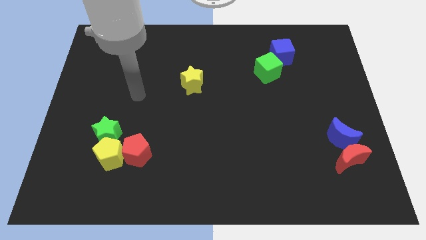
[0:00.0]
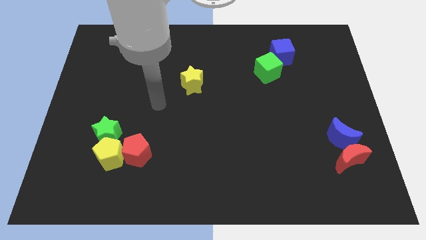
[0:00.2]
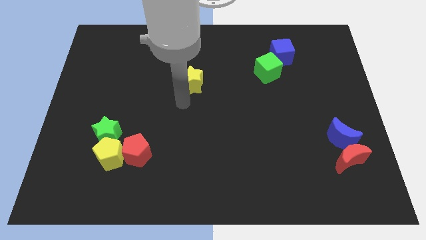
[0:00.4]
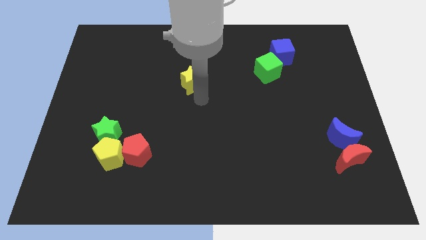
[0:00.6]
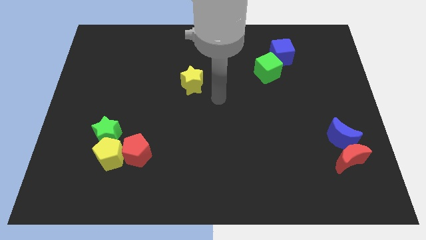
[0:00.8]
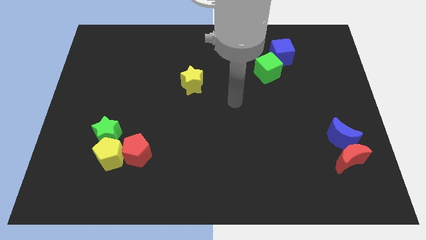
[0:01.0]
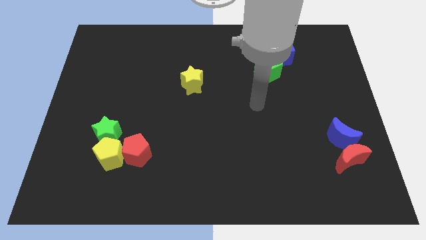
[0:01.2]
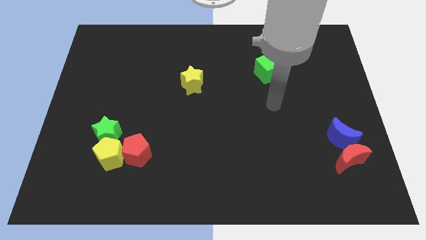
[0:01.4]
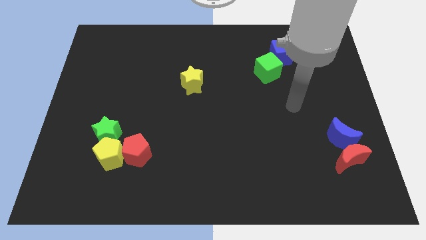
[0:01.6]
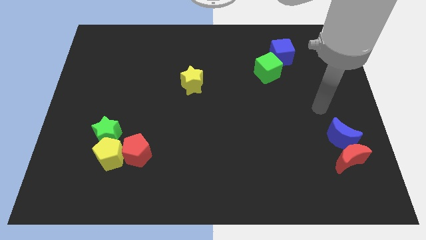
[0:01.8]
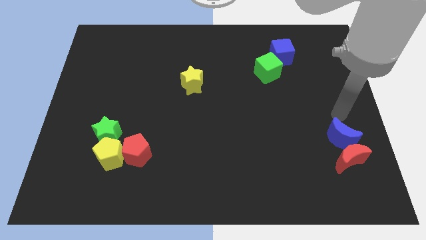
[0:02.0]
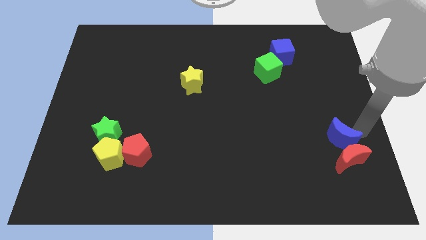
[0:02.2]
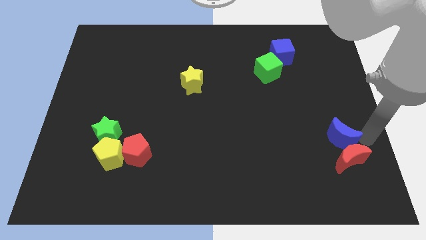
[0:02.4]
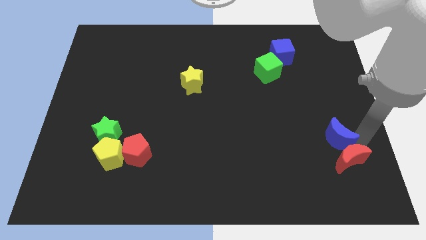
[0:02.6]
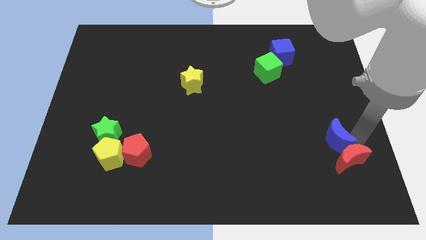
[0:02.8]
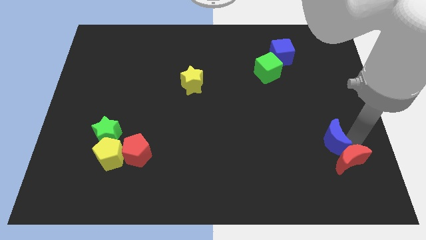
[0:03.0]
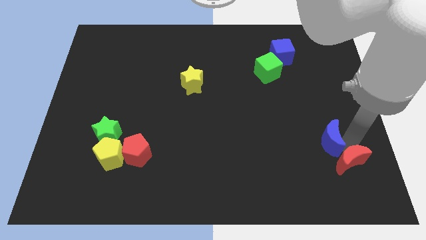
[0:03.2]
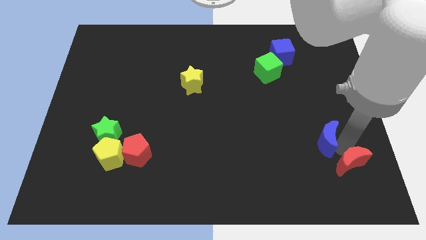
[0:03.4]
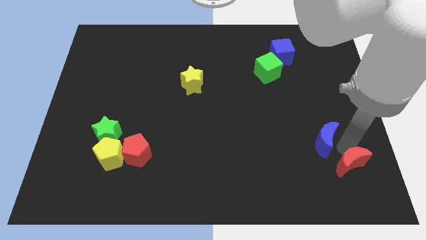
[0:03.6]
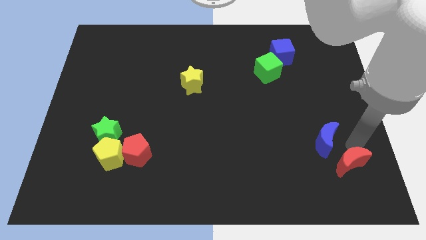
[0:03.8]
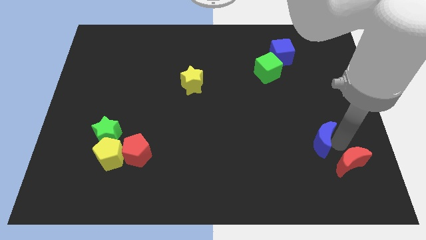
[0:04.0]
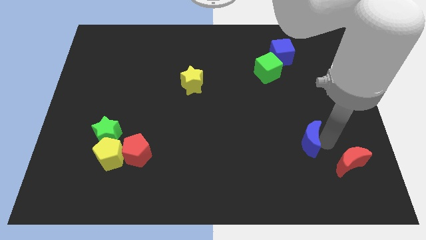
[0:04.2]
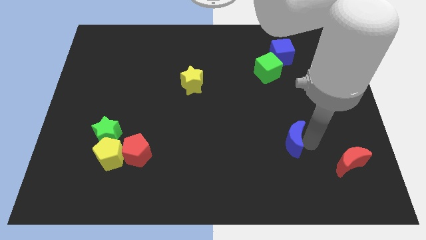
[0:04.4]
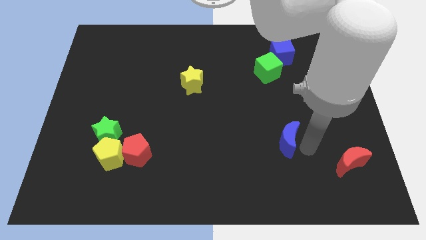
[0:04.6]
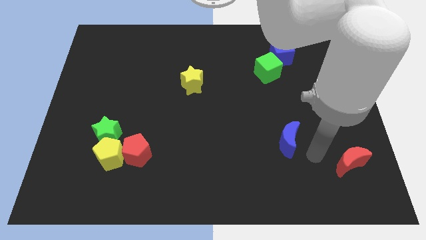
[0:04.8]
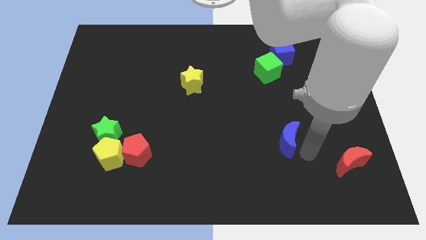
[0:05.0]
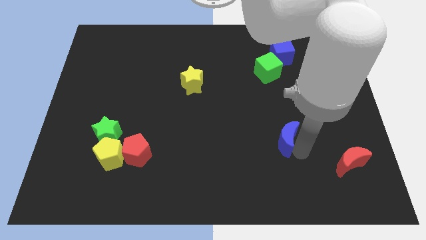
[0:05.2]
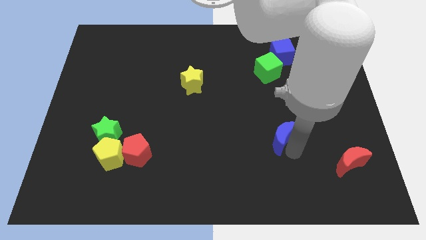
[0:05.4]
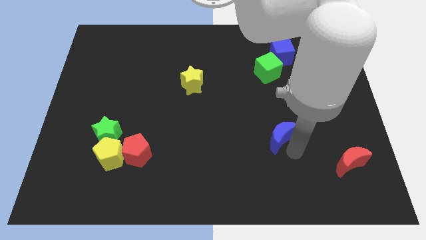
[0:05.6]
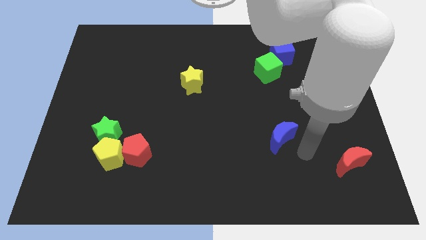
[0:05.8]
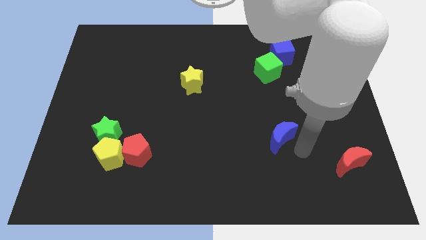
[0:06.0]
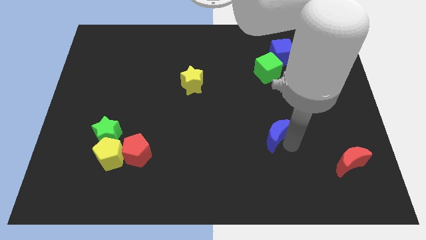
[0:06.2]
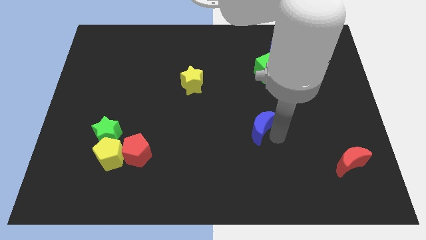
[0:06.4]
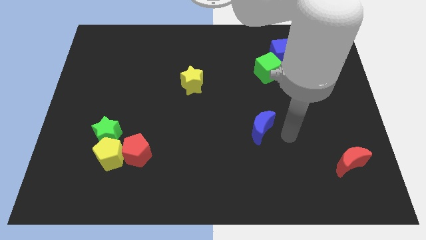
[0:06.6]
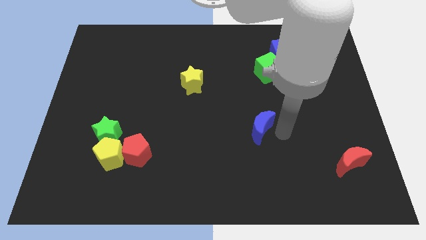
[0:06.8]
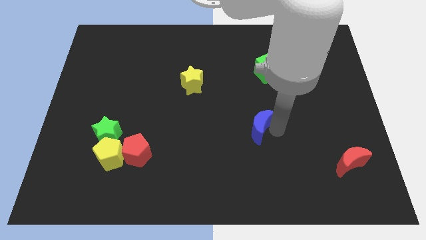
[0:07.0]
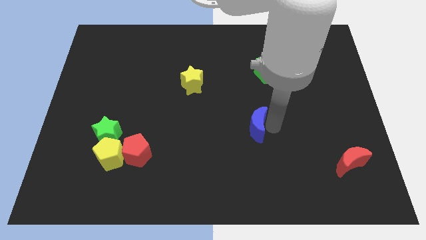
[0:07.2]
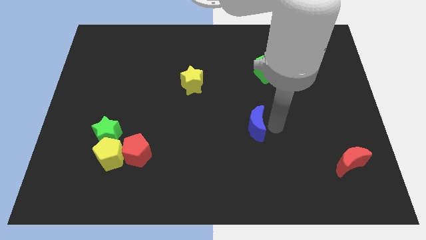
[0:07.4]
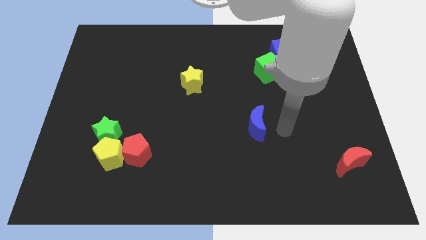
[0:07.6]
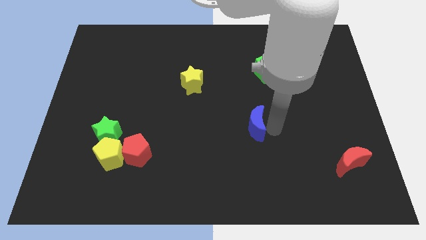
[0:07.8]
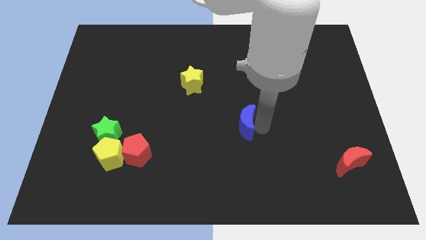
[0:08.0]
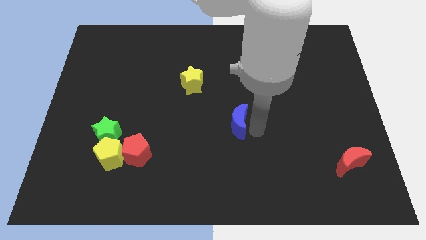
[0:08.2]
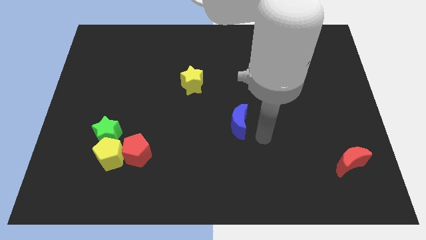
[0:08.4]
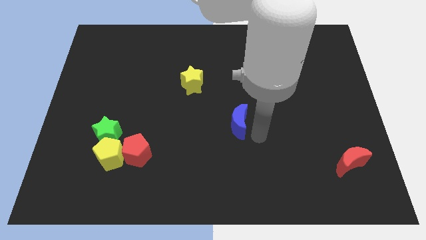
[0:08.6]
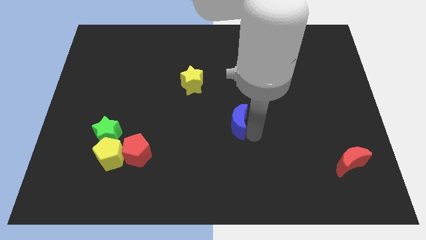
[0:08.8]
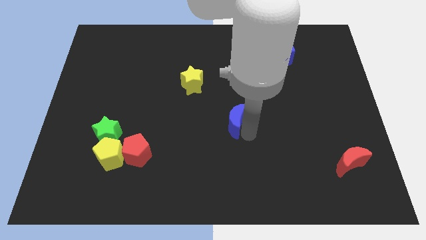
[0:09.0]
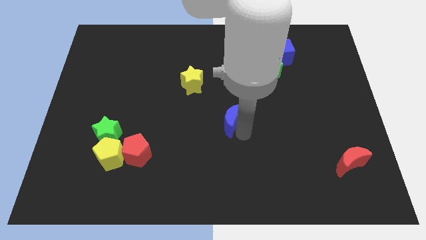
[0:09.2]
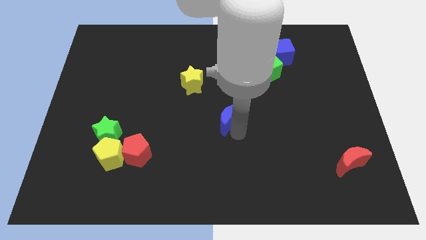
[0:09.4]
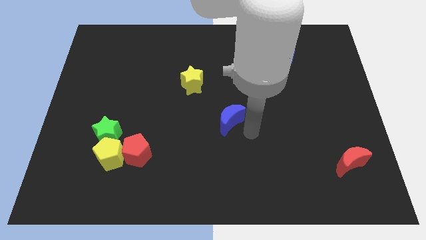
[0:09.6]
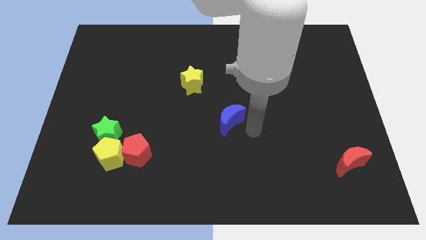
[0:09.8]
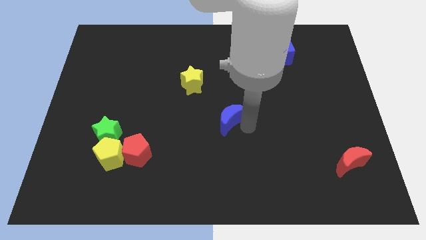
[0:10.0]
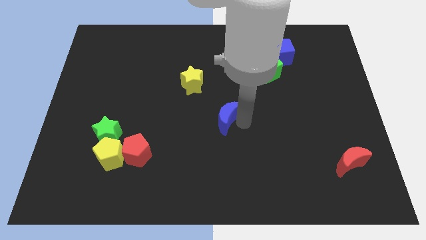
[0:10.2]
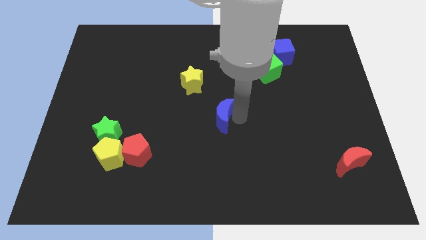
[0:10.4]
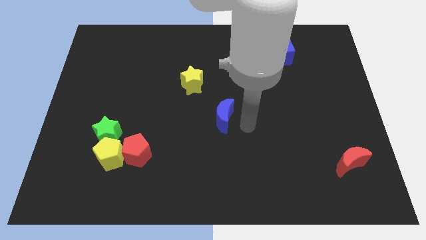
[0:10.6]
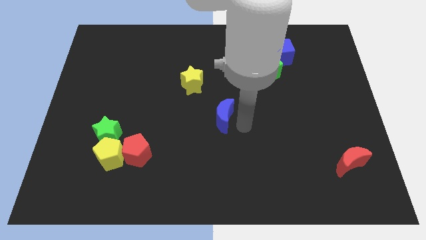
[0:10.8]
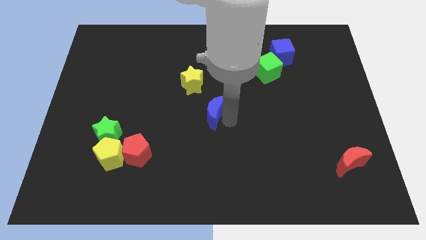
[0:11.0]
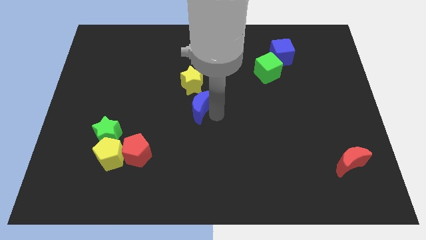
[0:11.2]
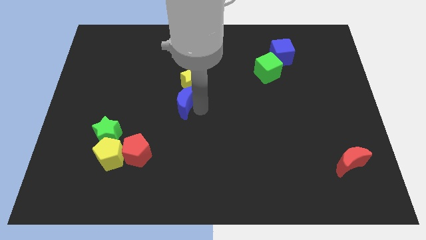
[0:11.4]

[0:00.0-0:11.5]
move the blue moon diagonally down and to the left of the yellow star

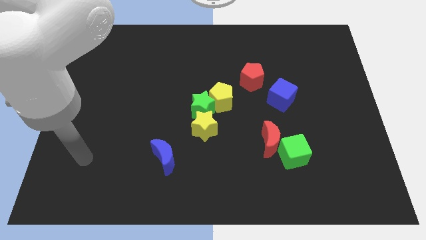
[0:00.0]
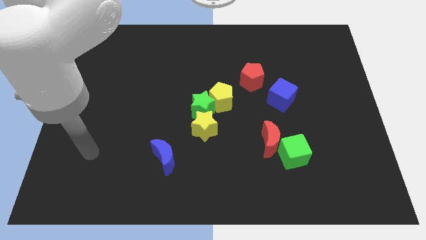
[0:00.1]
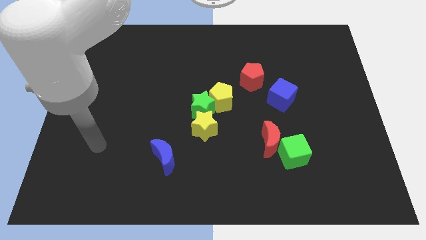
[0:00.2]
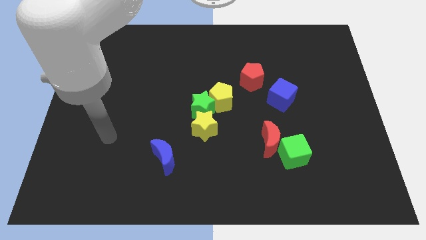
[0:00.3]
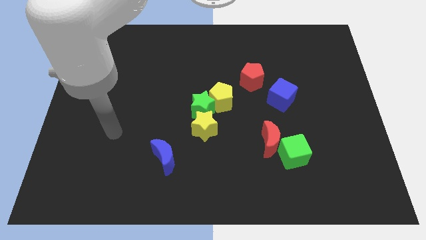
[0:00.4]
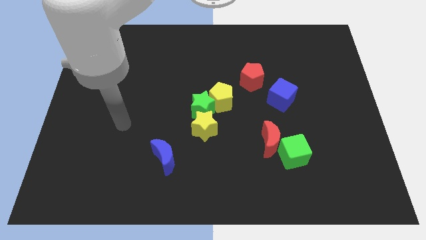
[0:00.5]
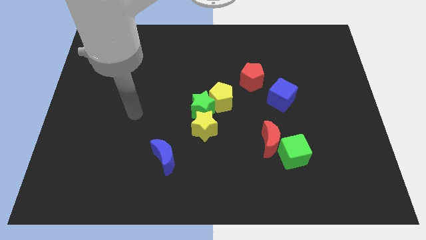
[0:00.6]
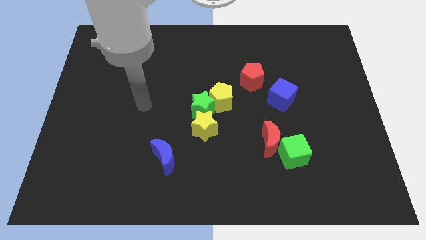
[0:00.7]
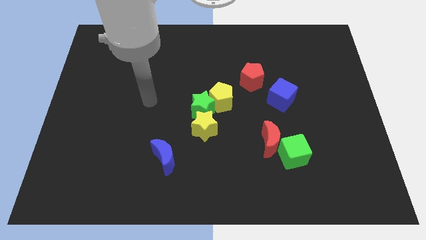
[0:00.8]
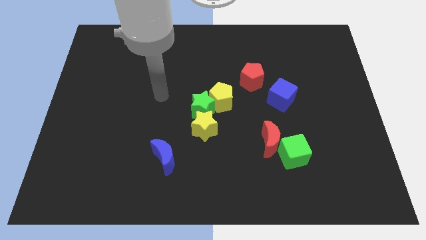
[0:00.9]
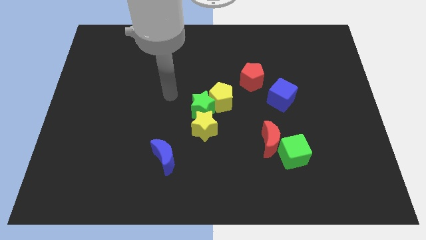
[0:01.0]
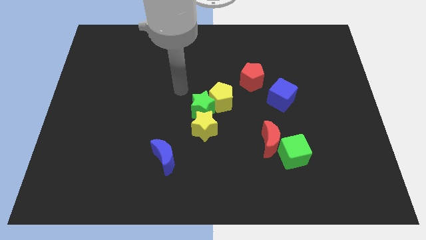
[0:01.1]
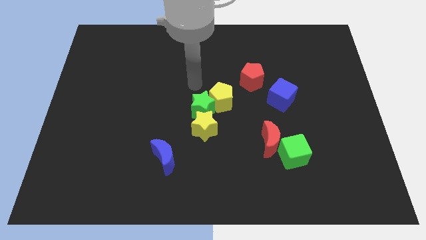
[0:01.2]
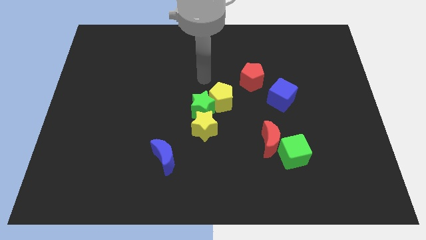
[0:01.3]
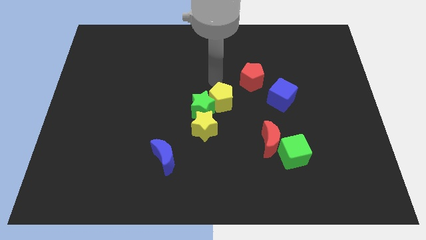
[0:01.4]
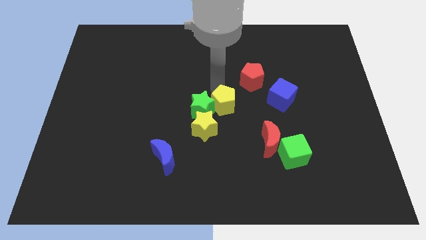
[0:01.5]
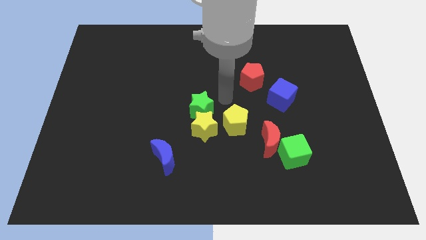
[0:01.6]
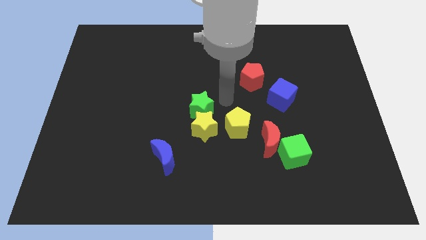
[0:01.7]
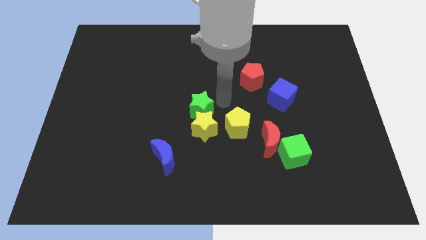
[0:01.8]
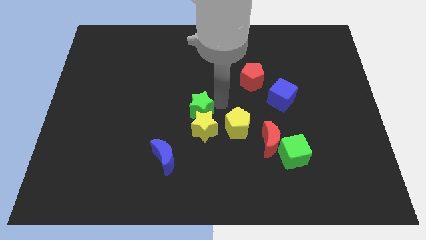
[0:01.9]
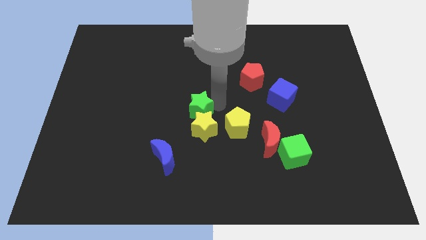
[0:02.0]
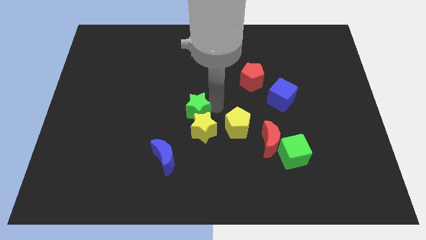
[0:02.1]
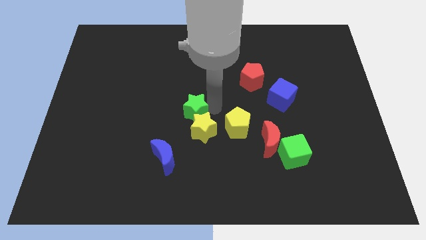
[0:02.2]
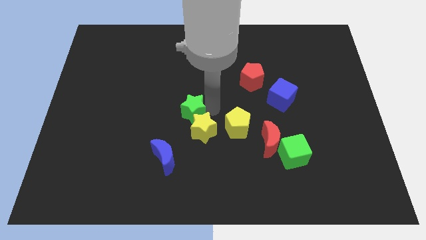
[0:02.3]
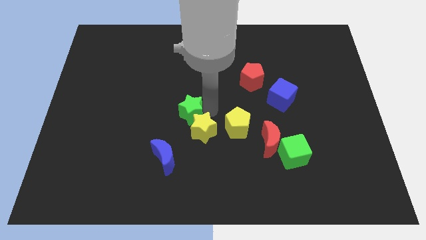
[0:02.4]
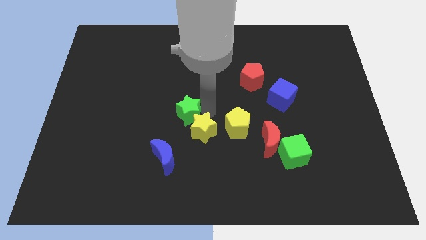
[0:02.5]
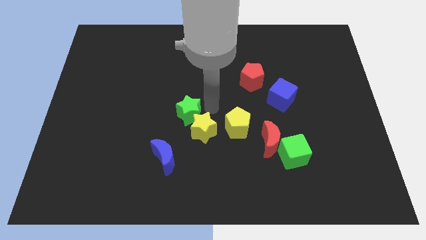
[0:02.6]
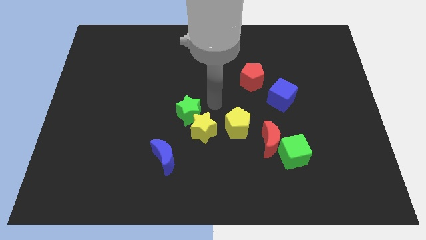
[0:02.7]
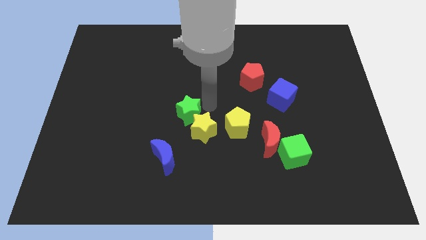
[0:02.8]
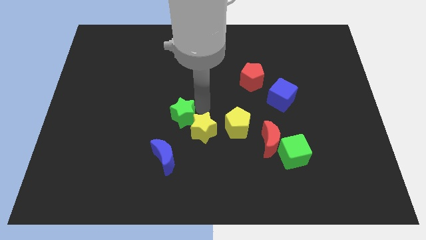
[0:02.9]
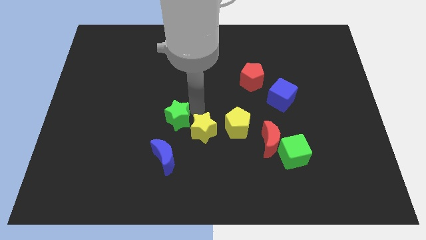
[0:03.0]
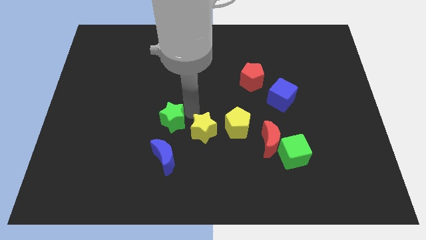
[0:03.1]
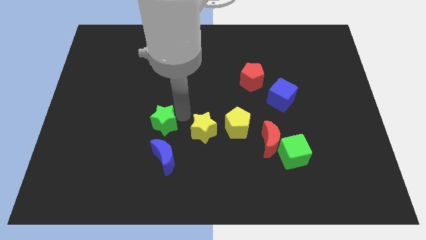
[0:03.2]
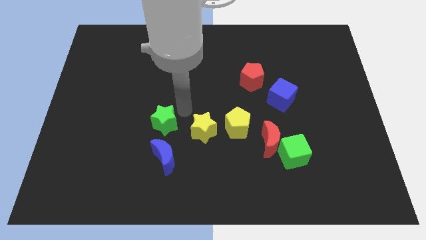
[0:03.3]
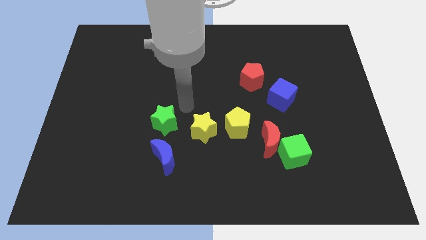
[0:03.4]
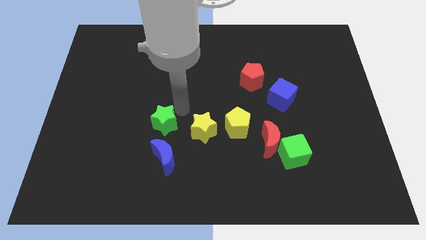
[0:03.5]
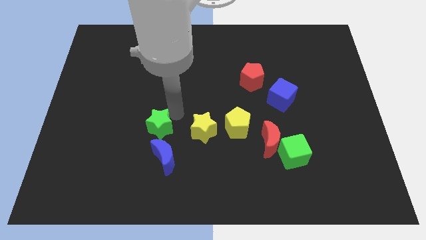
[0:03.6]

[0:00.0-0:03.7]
slide the green star diagonally up and to the left of the blue moon
